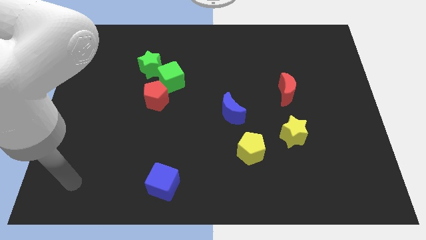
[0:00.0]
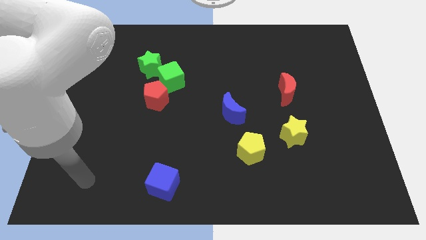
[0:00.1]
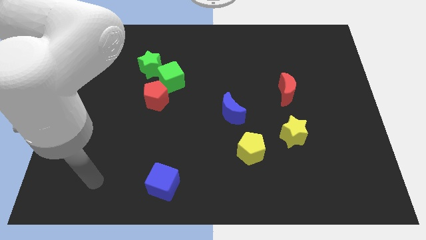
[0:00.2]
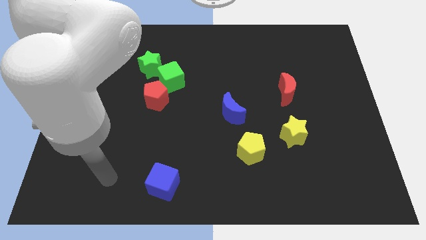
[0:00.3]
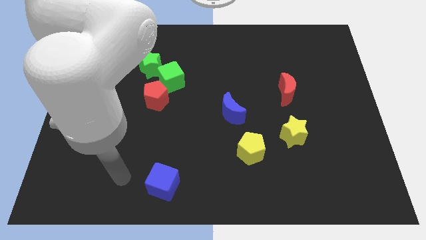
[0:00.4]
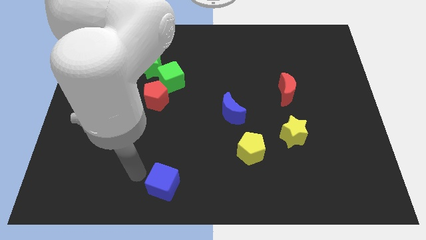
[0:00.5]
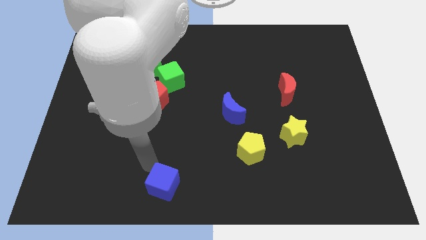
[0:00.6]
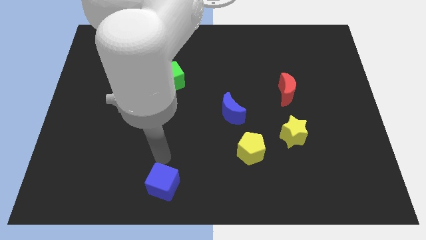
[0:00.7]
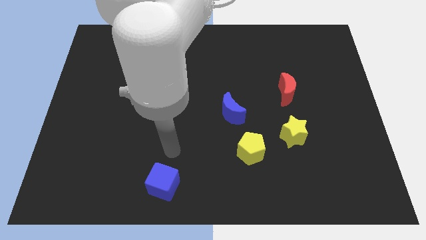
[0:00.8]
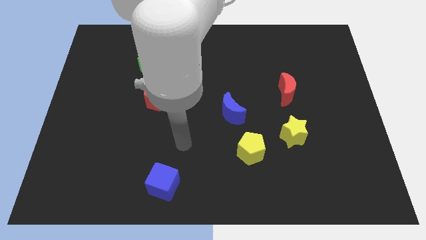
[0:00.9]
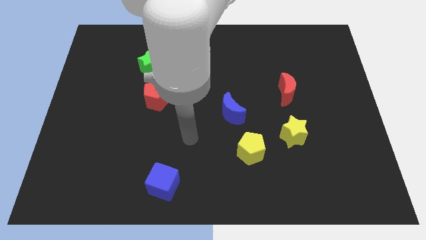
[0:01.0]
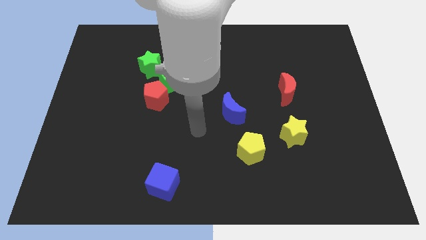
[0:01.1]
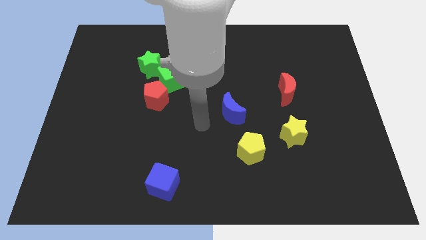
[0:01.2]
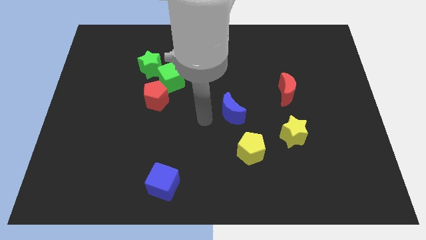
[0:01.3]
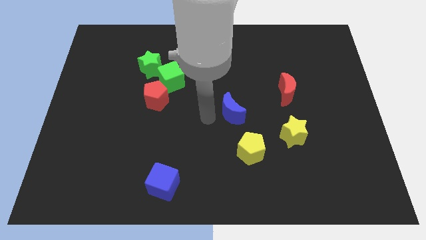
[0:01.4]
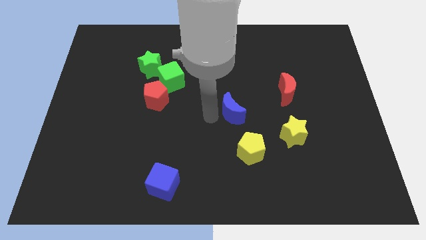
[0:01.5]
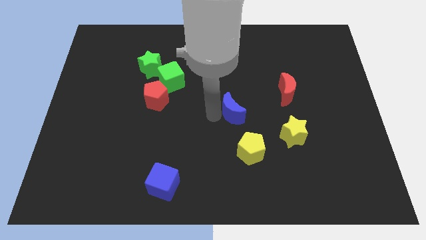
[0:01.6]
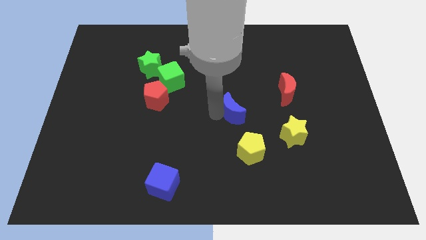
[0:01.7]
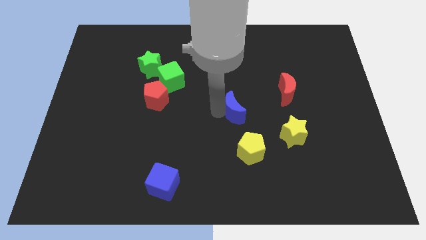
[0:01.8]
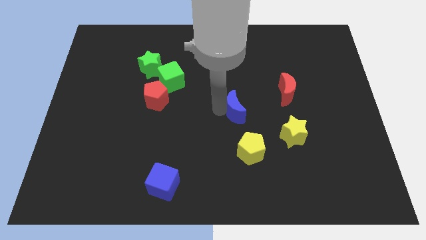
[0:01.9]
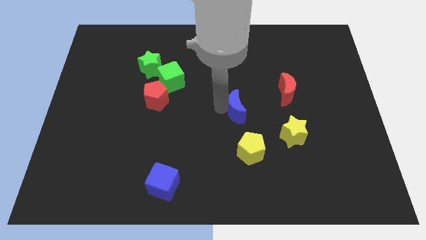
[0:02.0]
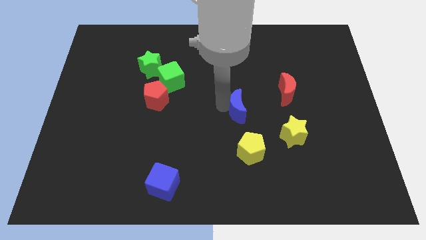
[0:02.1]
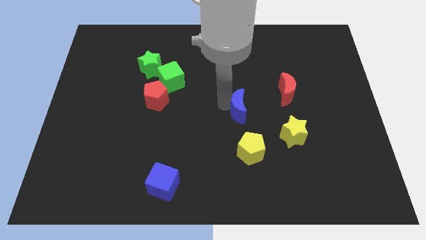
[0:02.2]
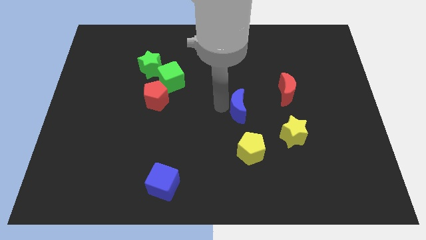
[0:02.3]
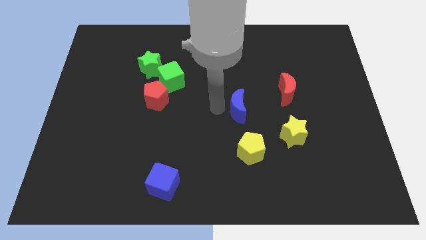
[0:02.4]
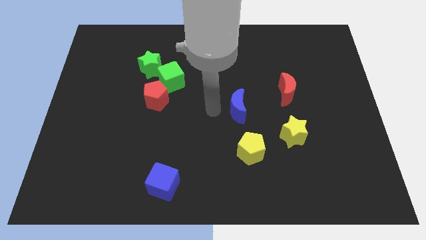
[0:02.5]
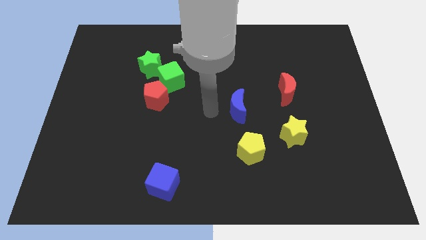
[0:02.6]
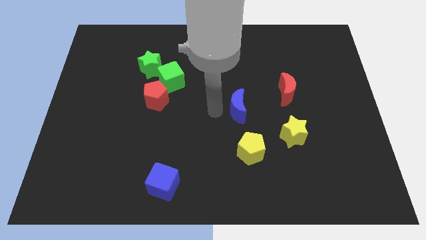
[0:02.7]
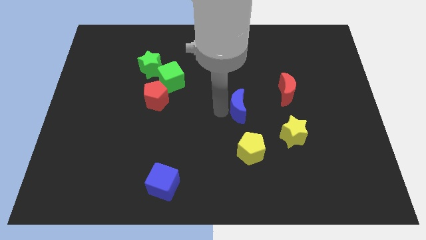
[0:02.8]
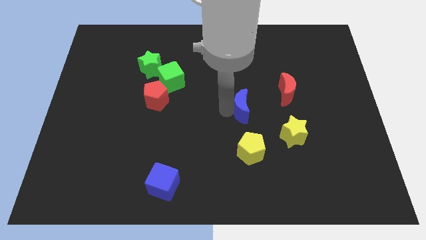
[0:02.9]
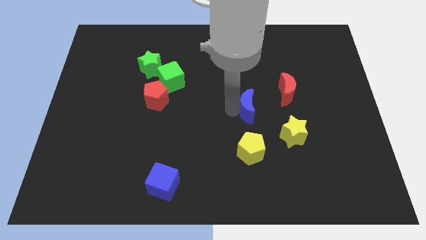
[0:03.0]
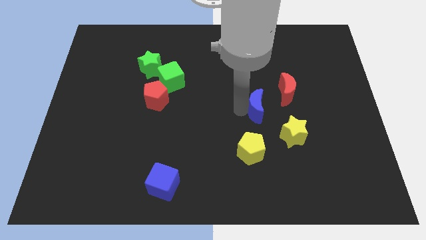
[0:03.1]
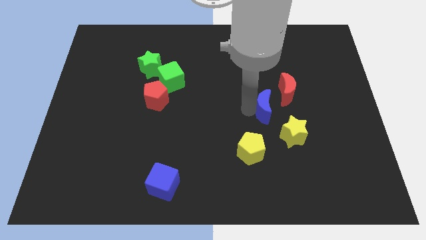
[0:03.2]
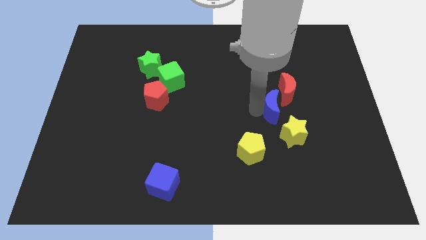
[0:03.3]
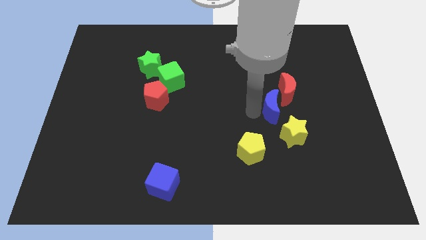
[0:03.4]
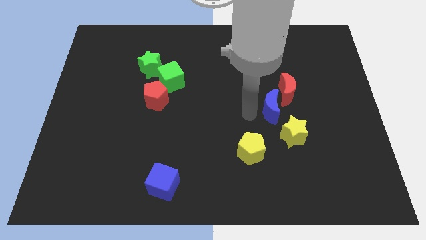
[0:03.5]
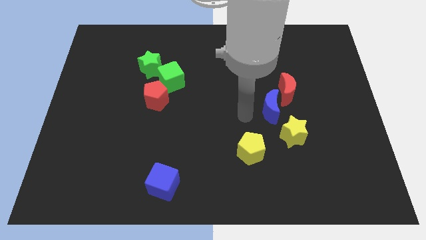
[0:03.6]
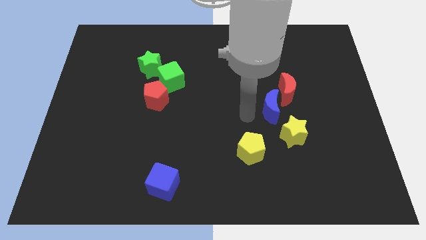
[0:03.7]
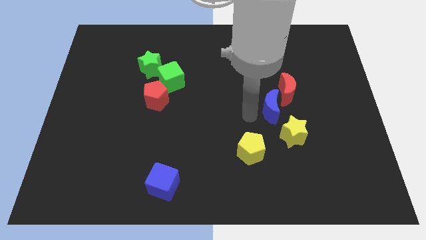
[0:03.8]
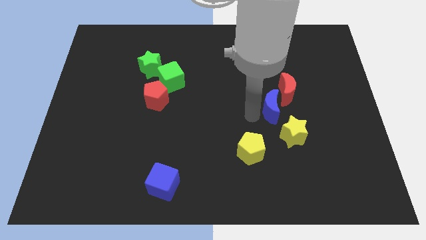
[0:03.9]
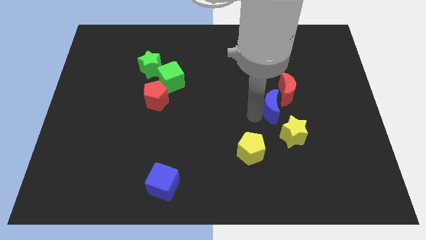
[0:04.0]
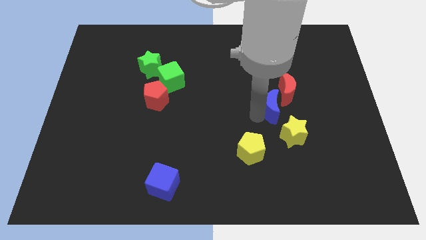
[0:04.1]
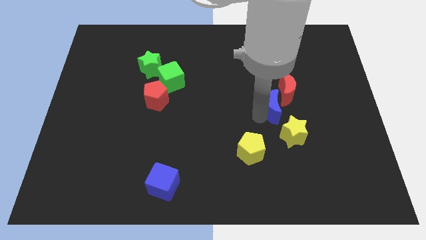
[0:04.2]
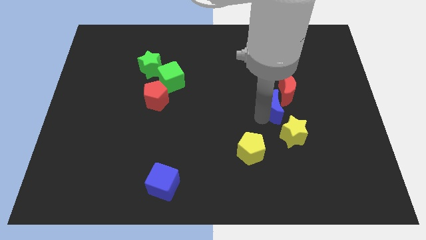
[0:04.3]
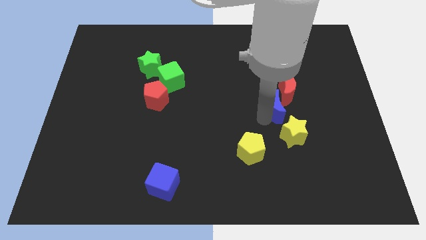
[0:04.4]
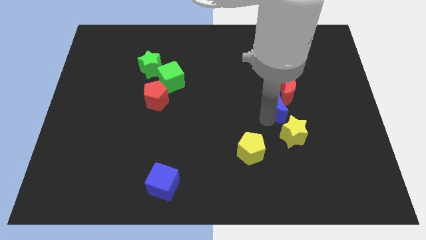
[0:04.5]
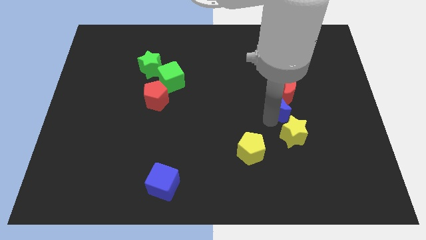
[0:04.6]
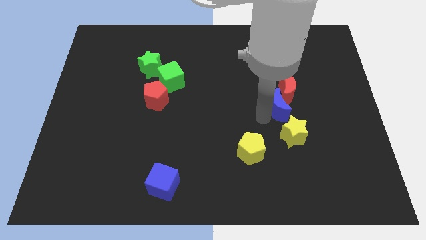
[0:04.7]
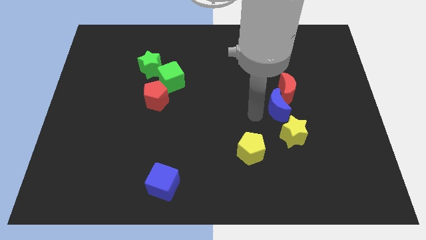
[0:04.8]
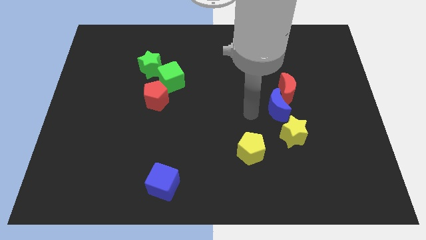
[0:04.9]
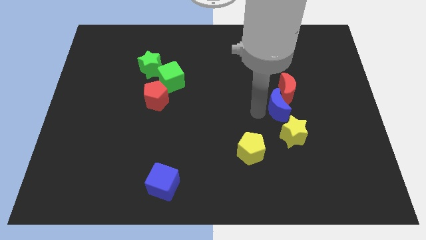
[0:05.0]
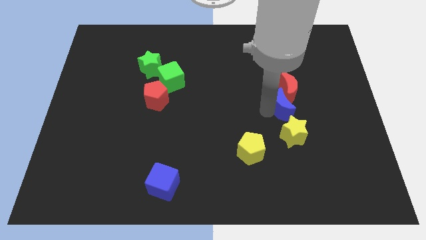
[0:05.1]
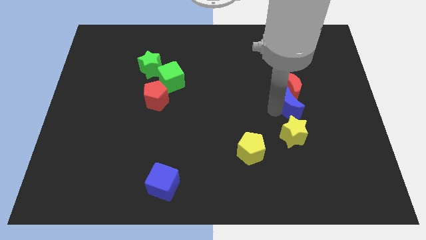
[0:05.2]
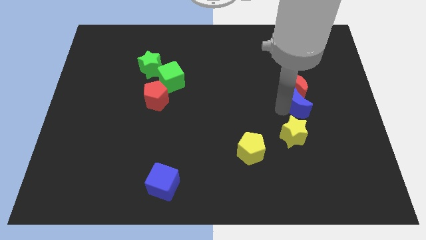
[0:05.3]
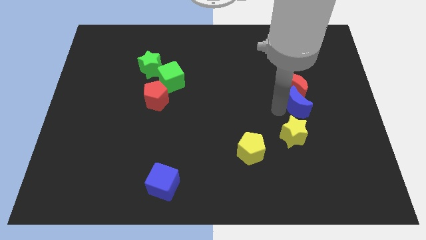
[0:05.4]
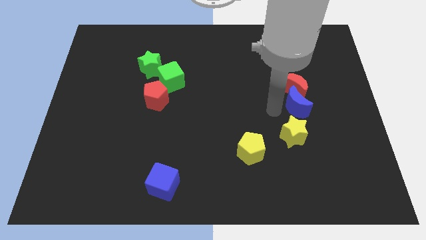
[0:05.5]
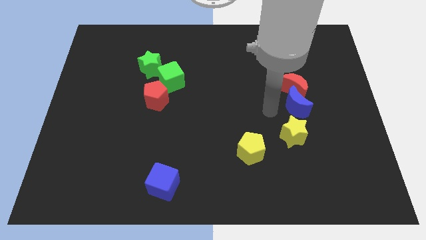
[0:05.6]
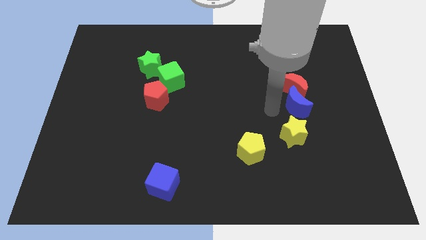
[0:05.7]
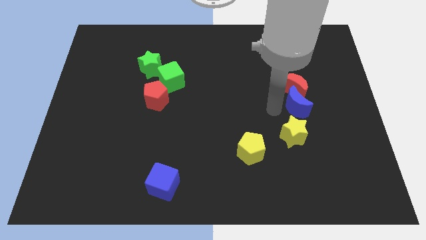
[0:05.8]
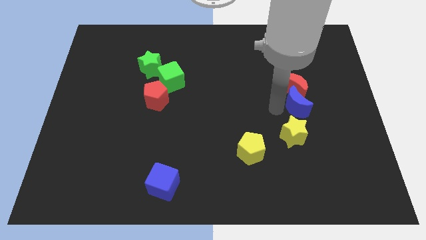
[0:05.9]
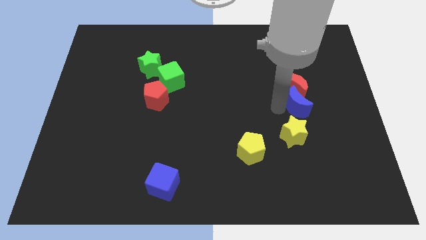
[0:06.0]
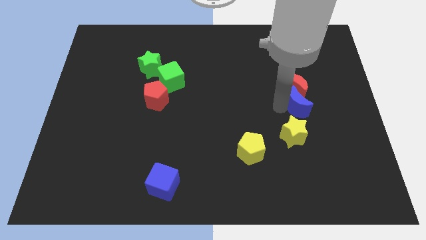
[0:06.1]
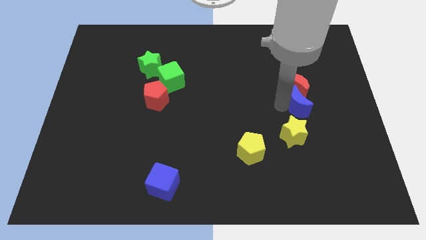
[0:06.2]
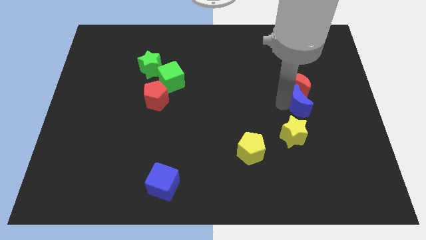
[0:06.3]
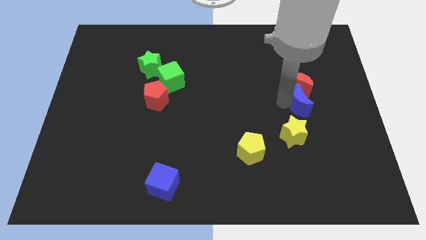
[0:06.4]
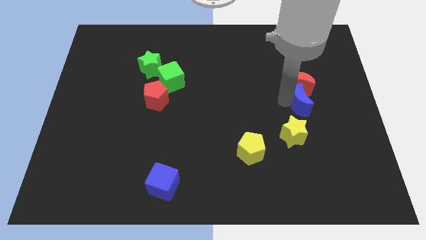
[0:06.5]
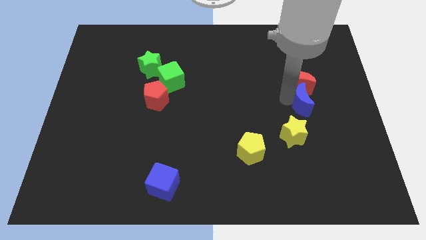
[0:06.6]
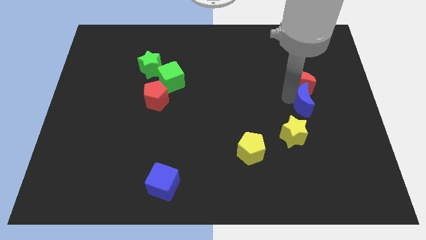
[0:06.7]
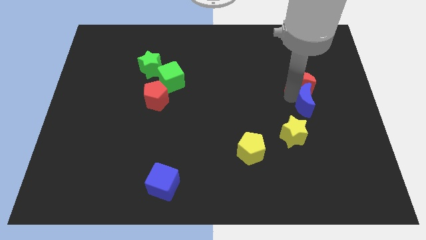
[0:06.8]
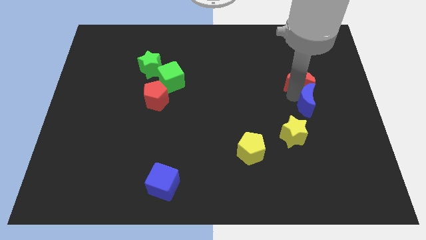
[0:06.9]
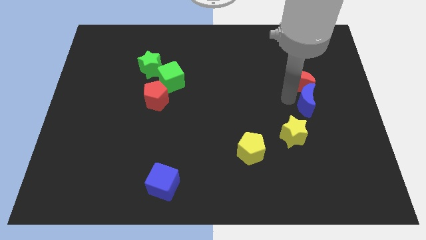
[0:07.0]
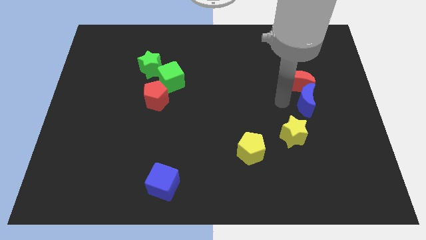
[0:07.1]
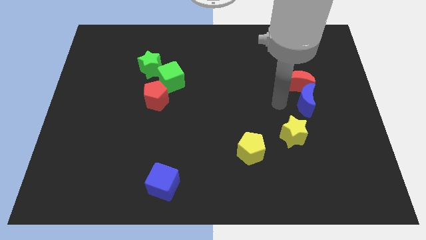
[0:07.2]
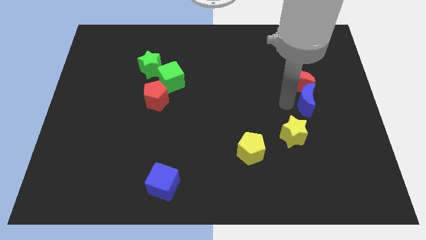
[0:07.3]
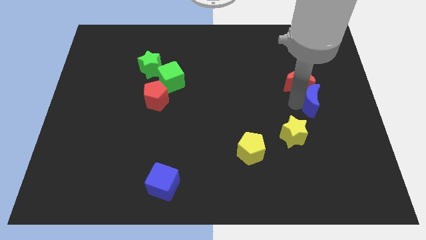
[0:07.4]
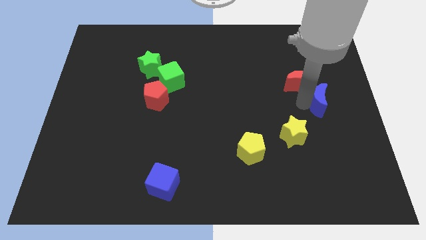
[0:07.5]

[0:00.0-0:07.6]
move the blue moon to the right side
